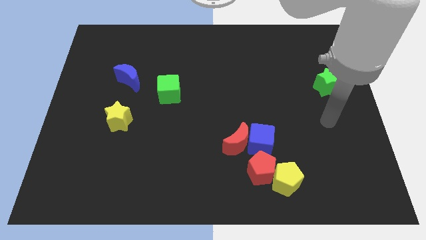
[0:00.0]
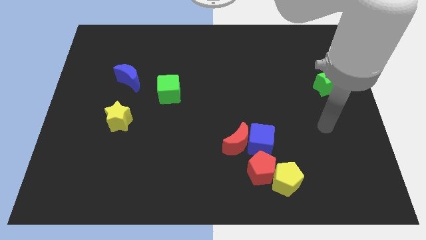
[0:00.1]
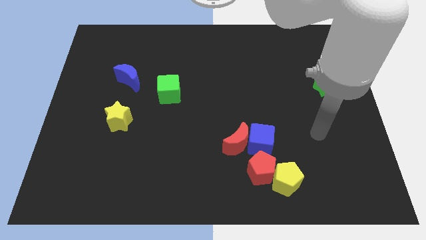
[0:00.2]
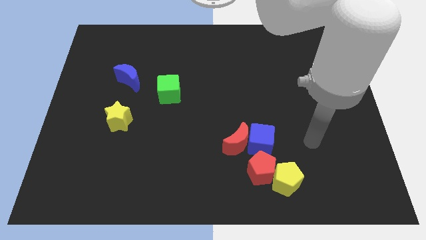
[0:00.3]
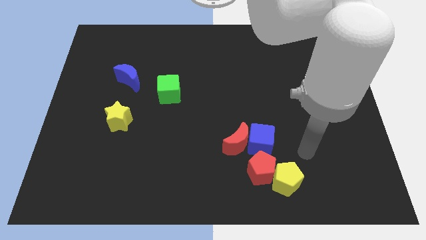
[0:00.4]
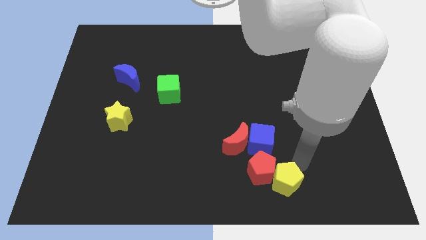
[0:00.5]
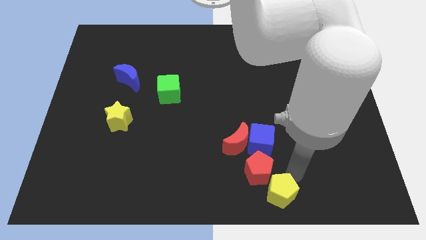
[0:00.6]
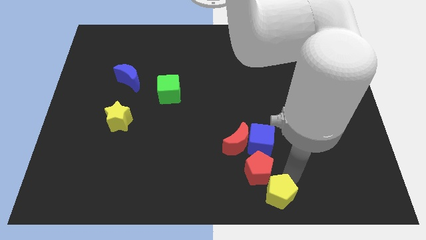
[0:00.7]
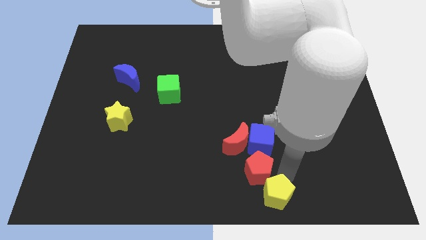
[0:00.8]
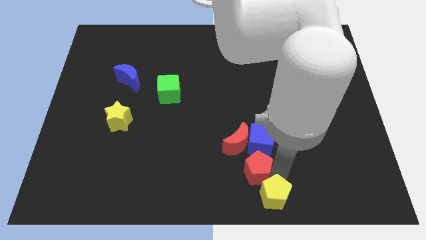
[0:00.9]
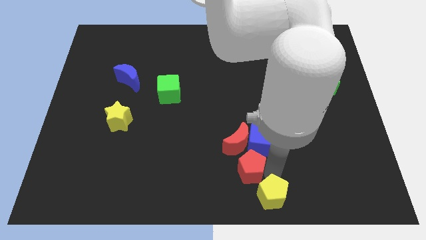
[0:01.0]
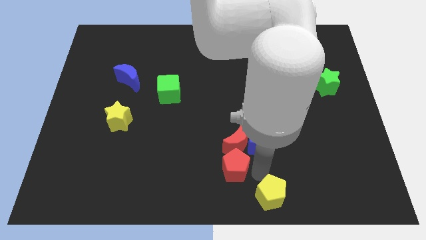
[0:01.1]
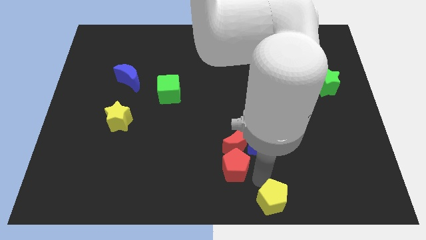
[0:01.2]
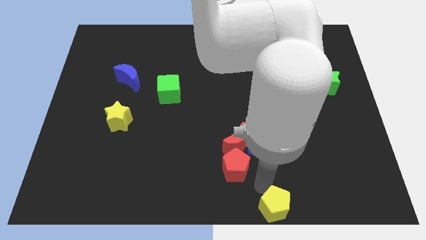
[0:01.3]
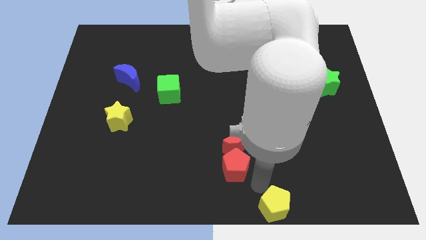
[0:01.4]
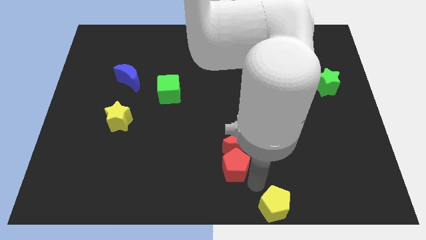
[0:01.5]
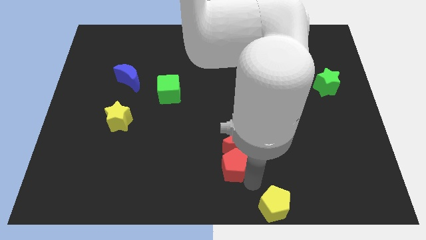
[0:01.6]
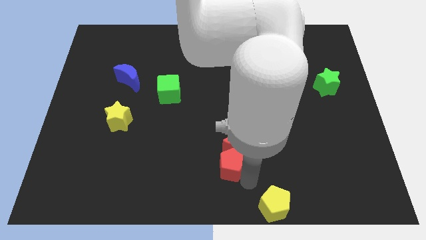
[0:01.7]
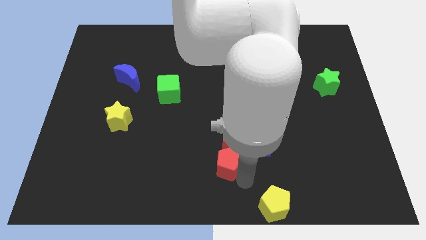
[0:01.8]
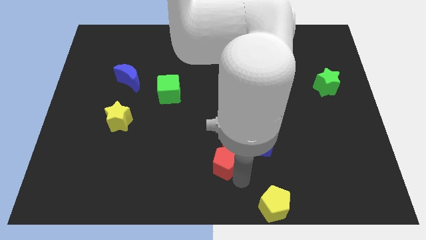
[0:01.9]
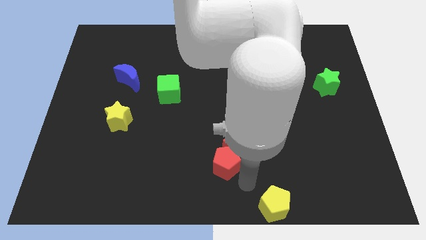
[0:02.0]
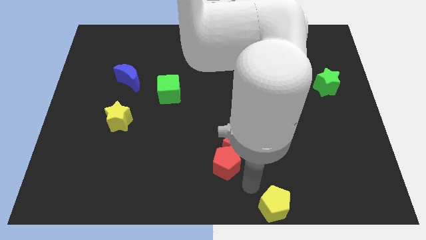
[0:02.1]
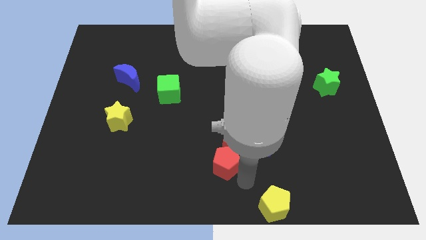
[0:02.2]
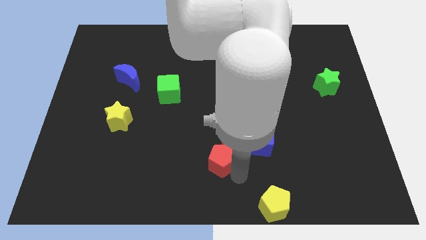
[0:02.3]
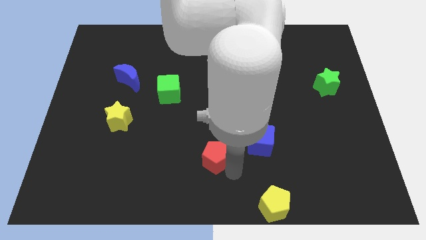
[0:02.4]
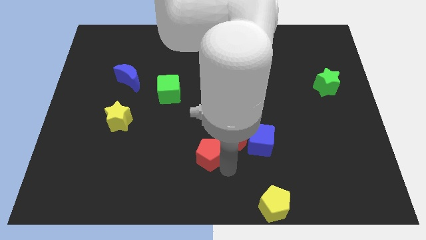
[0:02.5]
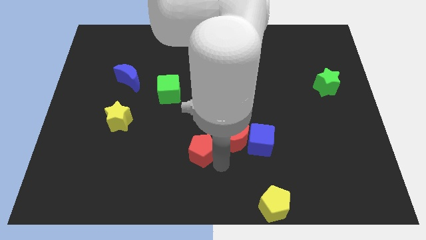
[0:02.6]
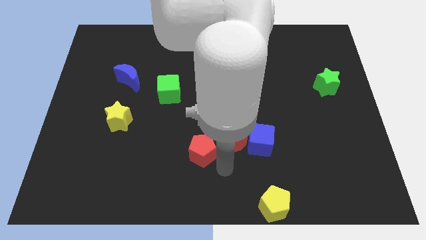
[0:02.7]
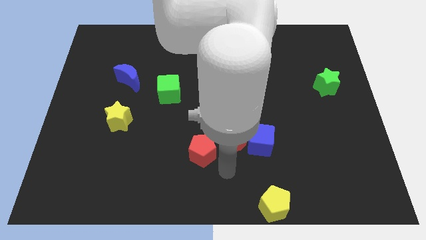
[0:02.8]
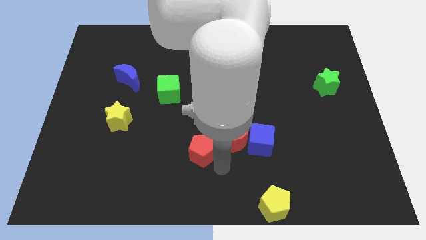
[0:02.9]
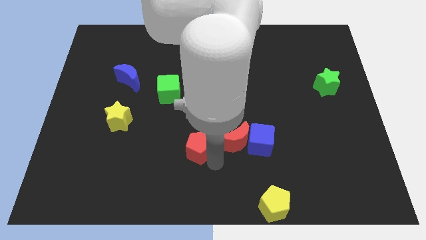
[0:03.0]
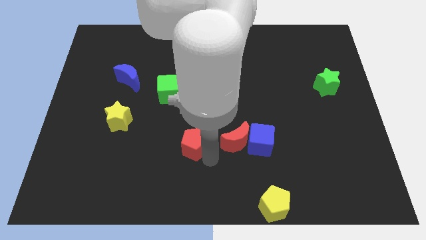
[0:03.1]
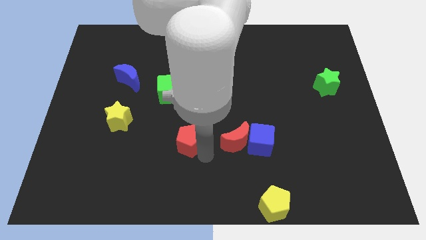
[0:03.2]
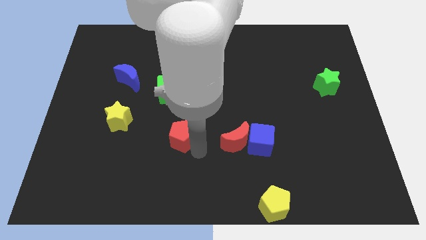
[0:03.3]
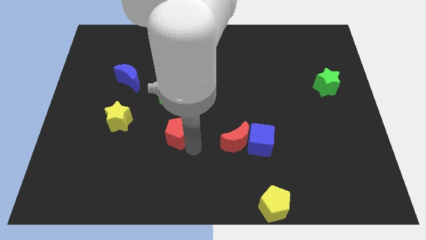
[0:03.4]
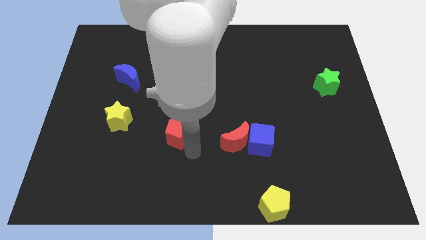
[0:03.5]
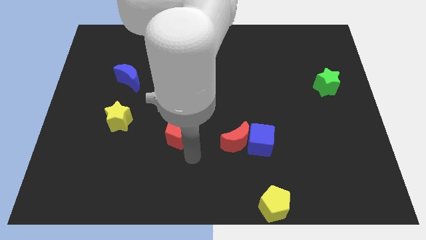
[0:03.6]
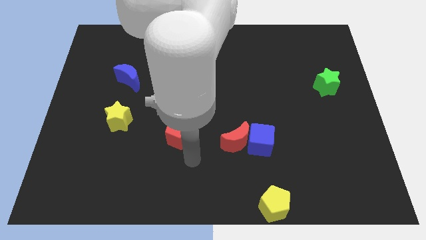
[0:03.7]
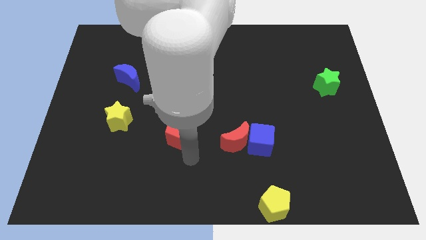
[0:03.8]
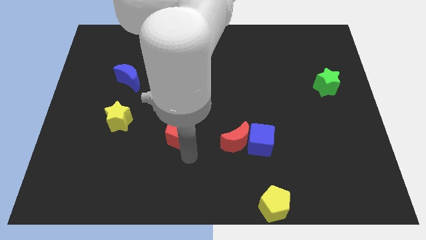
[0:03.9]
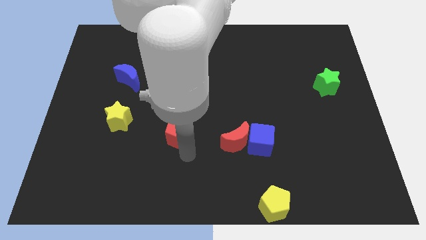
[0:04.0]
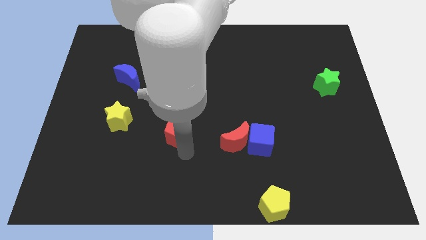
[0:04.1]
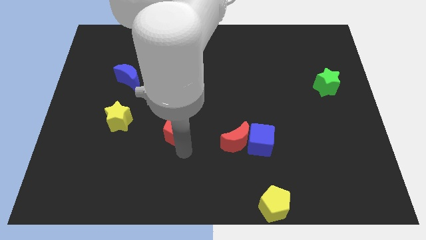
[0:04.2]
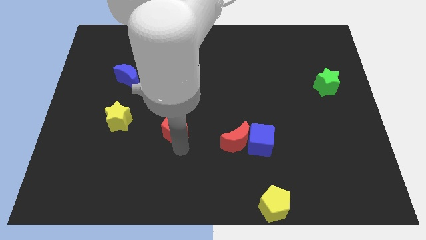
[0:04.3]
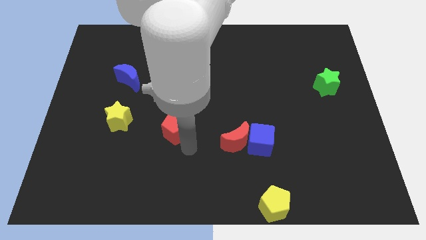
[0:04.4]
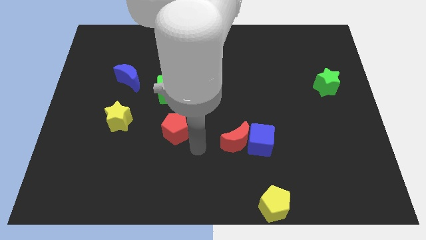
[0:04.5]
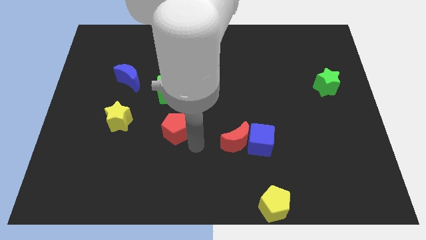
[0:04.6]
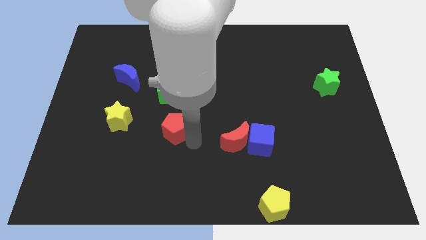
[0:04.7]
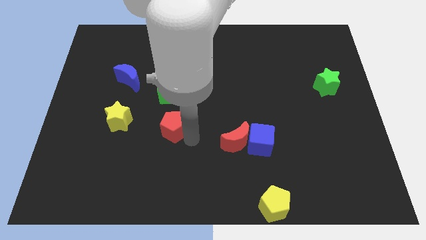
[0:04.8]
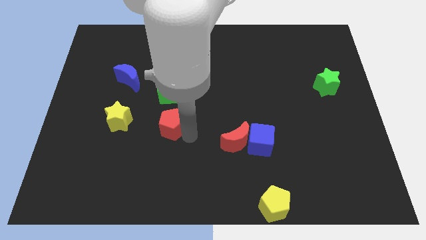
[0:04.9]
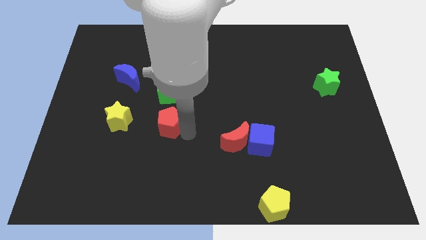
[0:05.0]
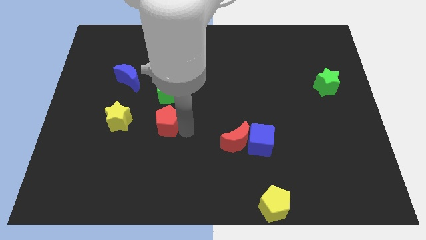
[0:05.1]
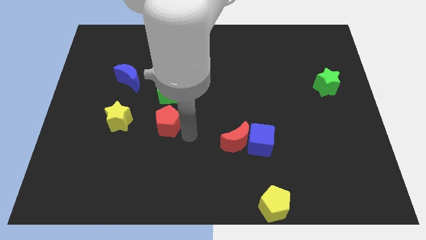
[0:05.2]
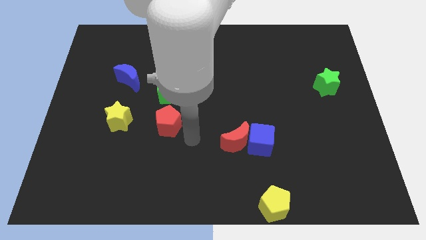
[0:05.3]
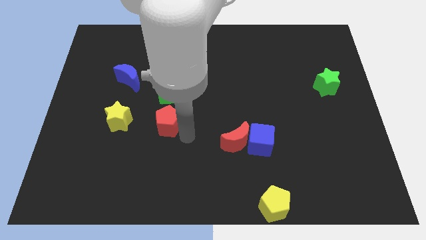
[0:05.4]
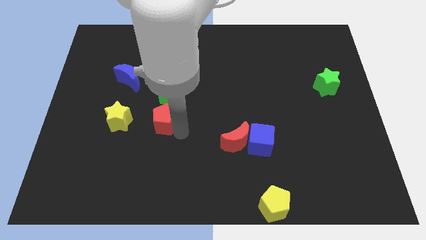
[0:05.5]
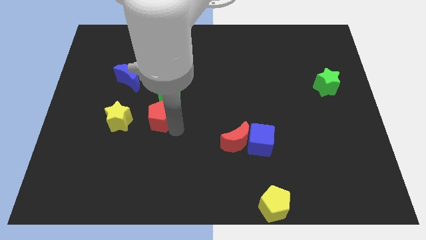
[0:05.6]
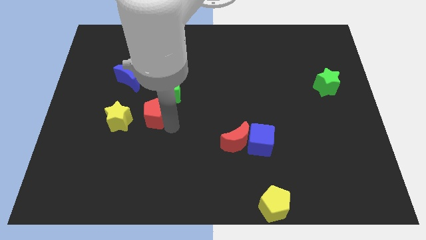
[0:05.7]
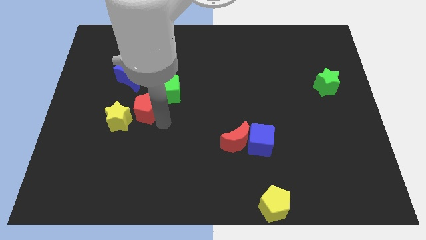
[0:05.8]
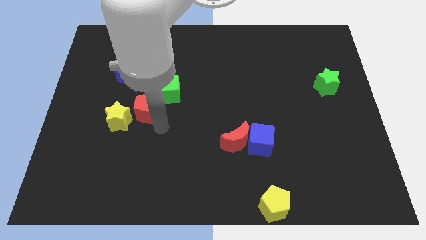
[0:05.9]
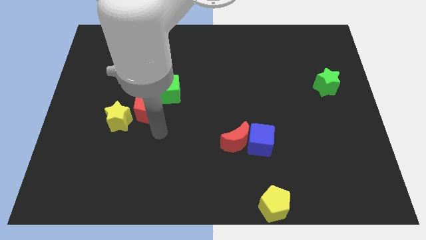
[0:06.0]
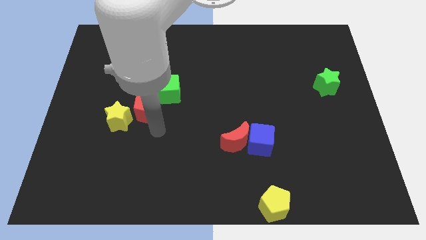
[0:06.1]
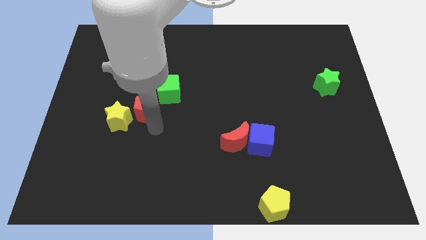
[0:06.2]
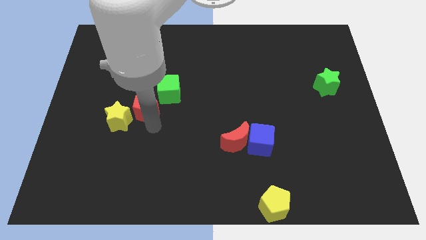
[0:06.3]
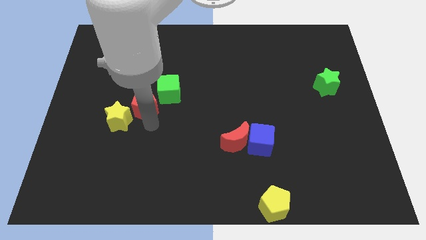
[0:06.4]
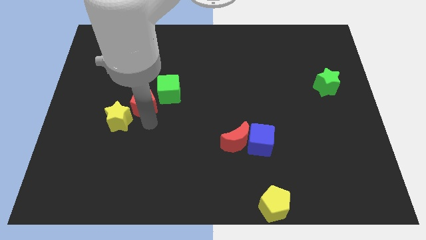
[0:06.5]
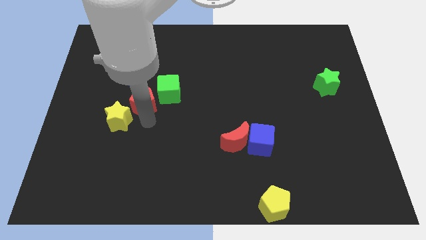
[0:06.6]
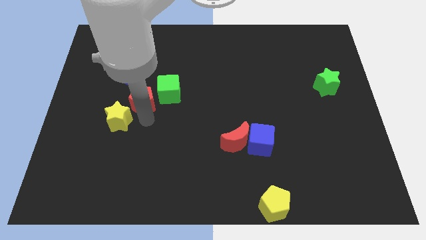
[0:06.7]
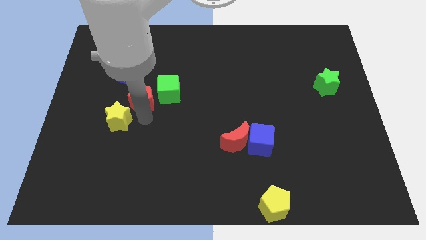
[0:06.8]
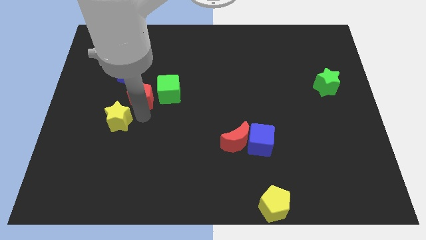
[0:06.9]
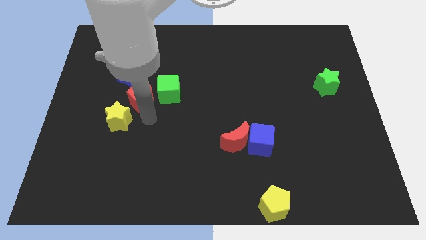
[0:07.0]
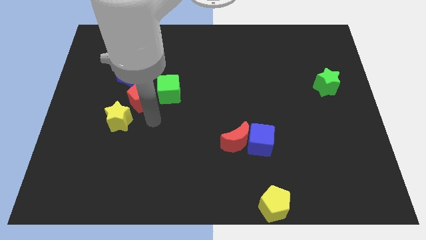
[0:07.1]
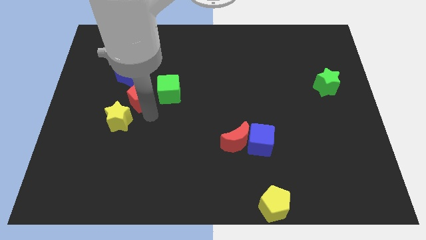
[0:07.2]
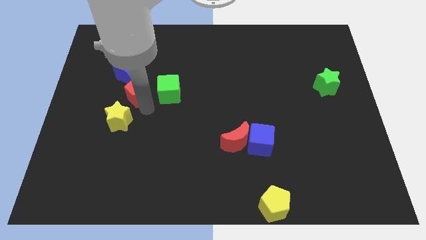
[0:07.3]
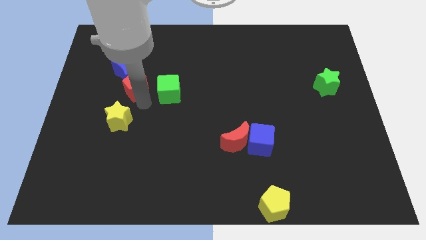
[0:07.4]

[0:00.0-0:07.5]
push the red pentagon towards the blue moon

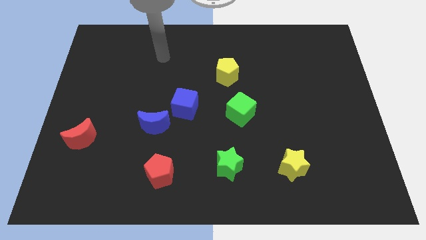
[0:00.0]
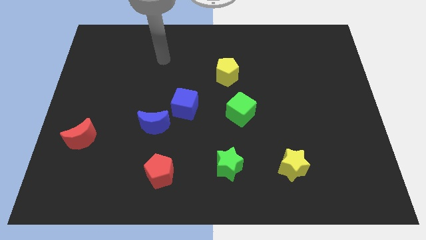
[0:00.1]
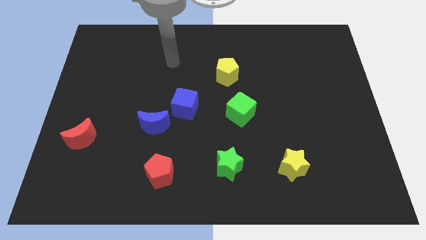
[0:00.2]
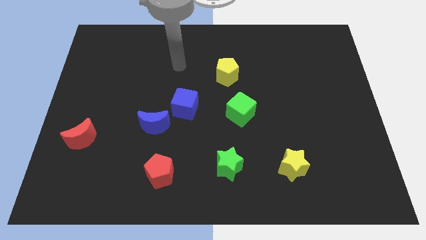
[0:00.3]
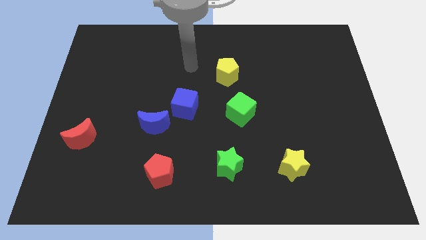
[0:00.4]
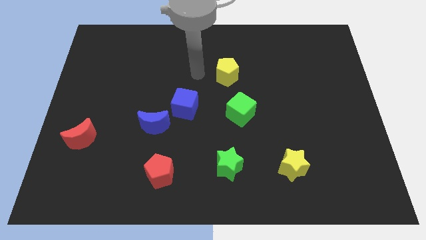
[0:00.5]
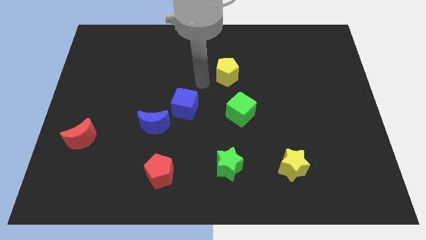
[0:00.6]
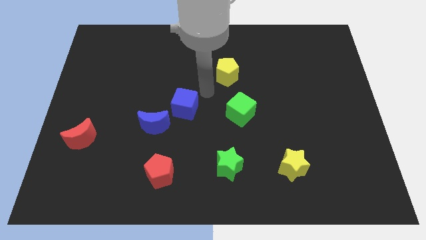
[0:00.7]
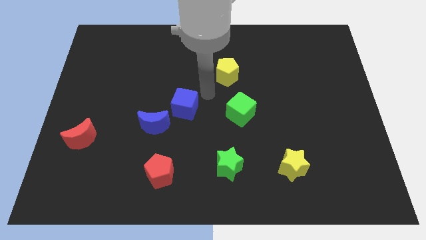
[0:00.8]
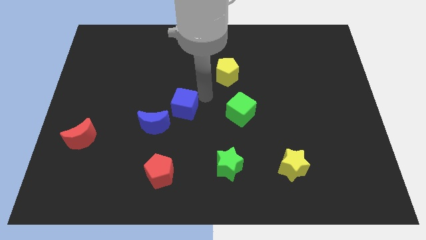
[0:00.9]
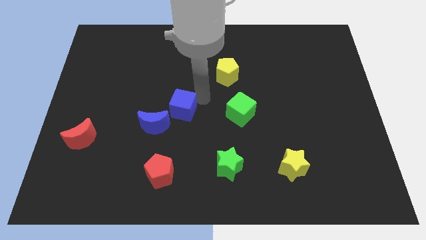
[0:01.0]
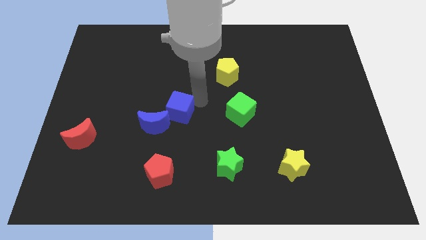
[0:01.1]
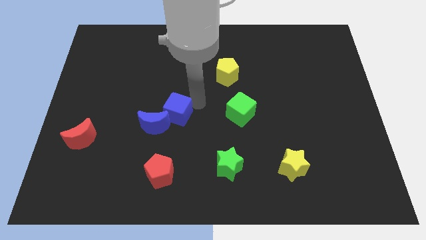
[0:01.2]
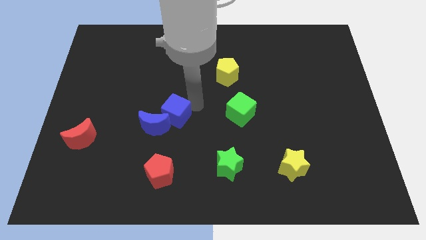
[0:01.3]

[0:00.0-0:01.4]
slide the blue cube towards the blue moon
